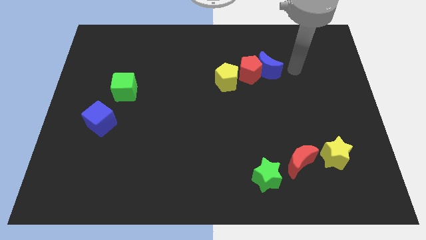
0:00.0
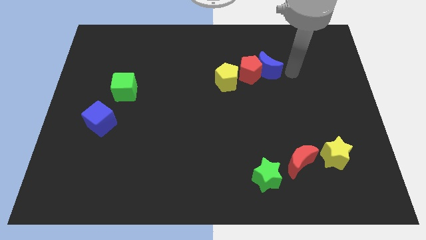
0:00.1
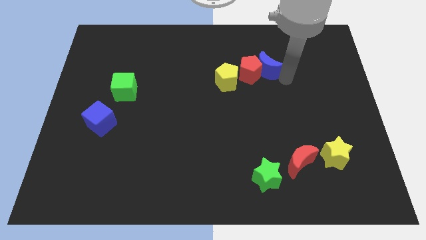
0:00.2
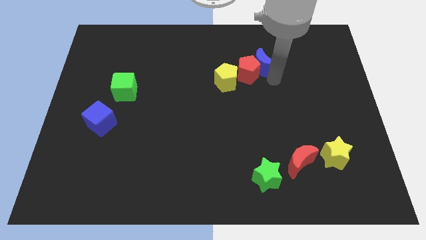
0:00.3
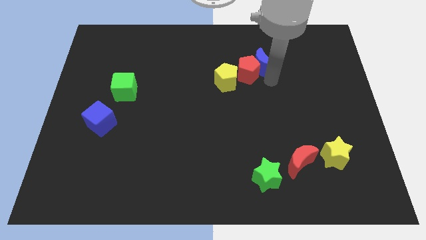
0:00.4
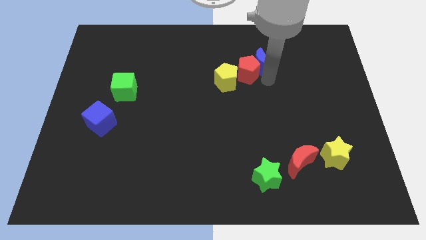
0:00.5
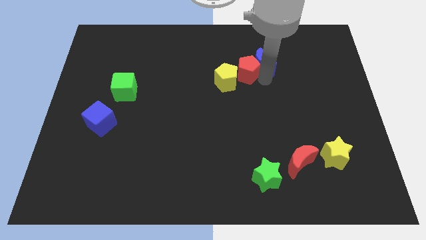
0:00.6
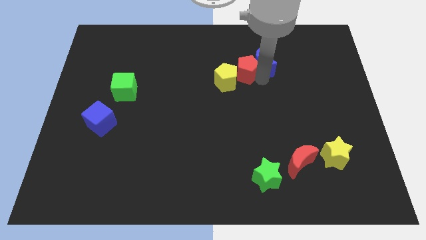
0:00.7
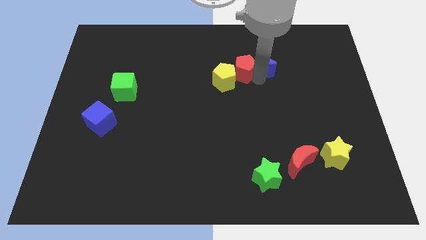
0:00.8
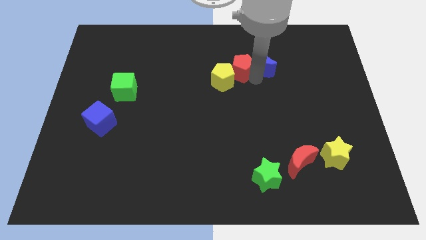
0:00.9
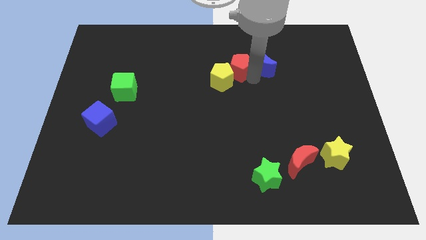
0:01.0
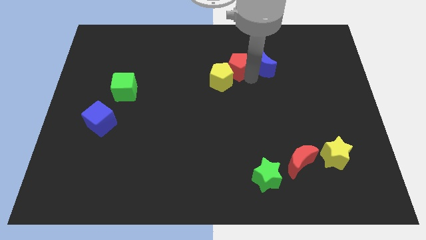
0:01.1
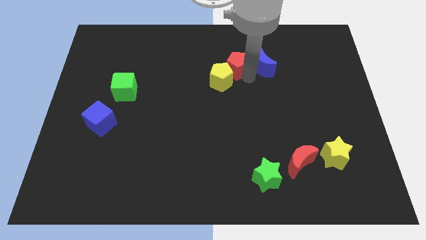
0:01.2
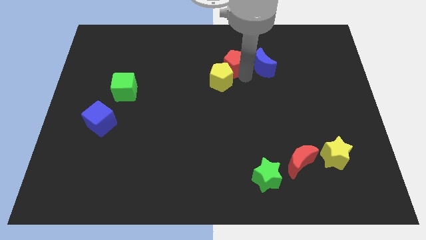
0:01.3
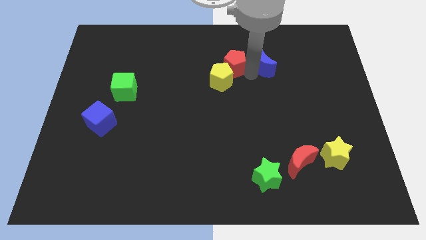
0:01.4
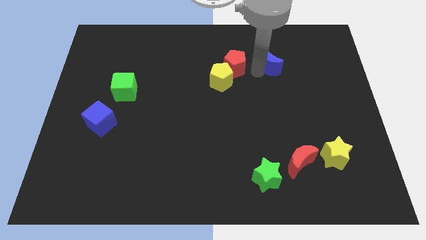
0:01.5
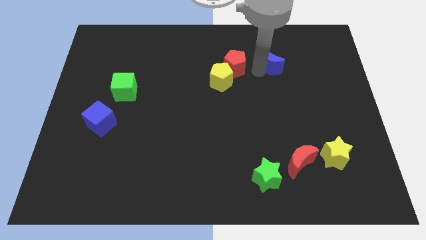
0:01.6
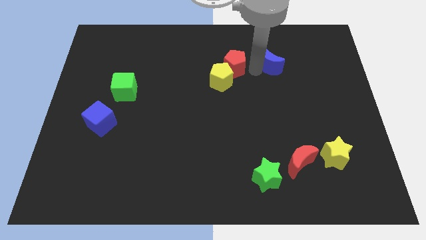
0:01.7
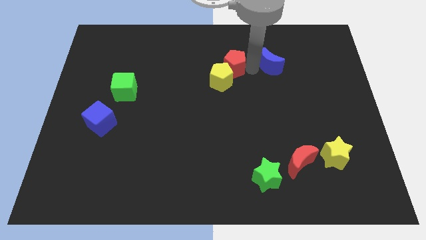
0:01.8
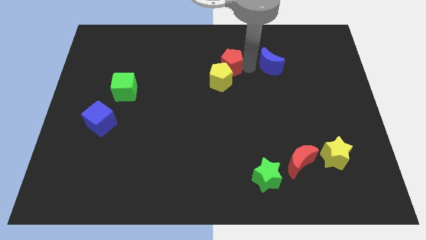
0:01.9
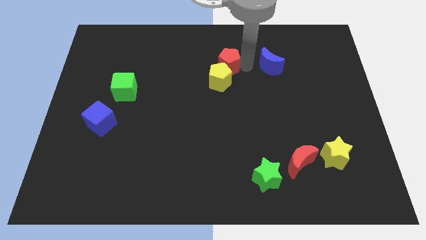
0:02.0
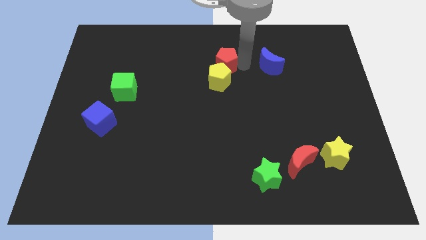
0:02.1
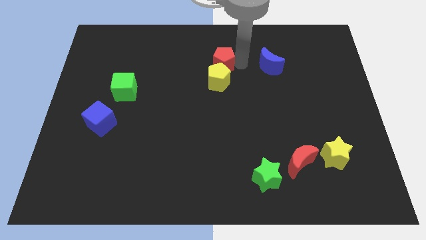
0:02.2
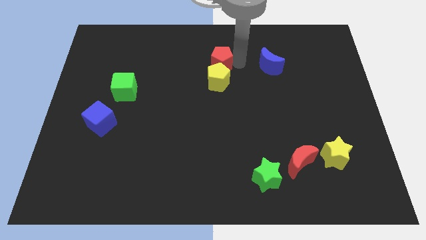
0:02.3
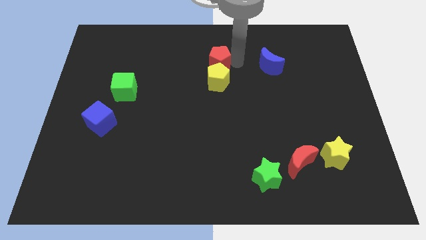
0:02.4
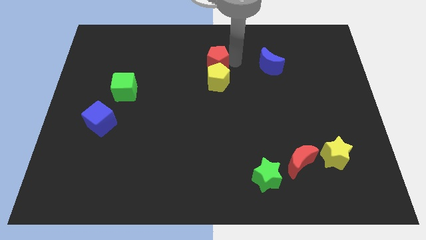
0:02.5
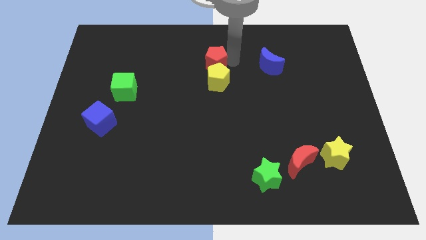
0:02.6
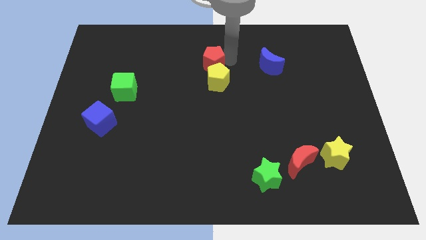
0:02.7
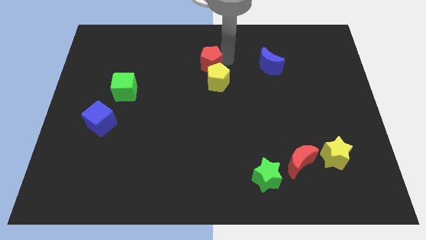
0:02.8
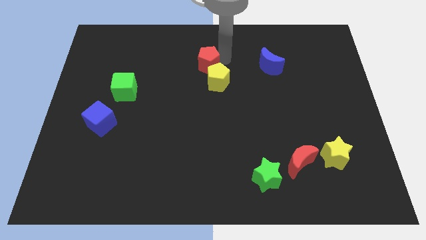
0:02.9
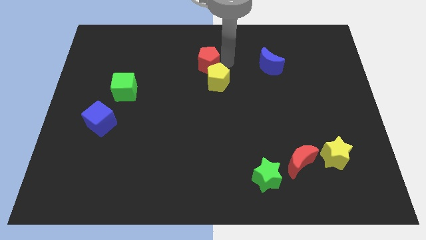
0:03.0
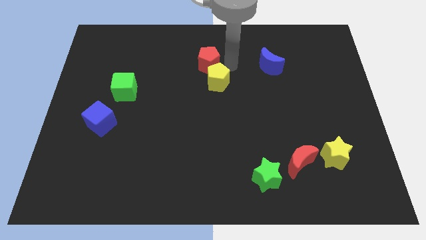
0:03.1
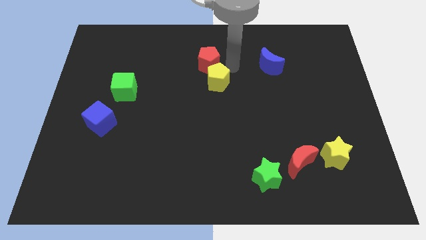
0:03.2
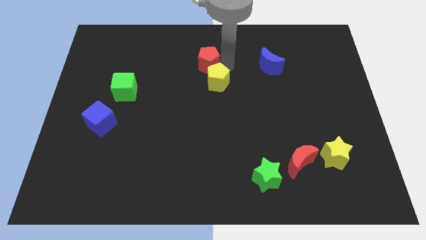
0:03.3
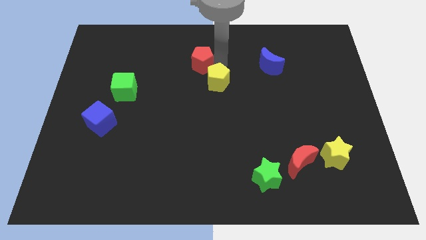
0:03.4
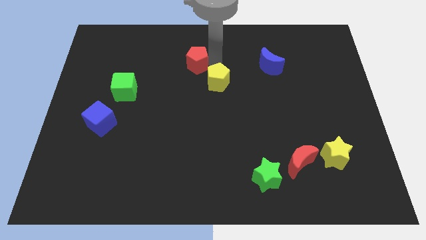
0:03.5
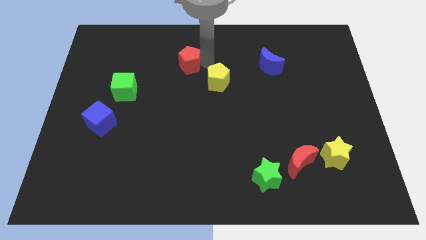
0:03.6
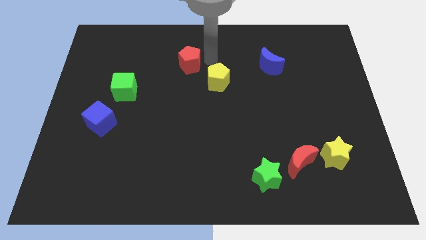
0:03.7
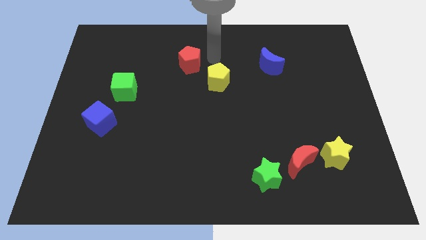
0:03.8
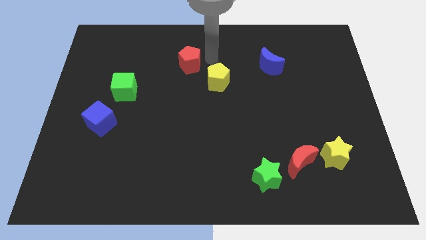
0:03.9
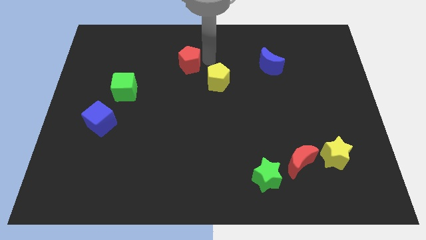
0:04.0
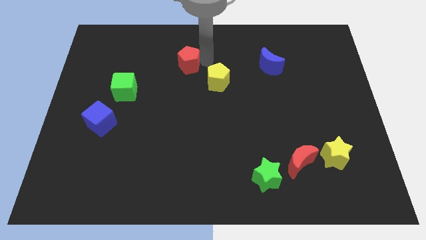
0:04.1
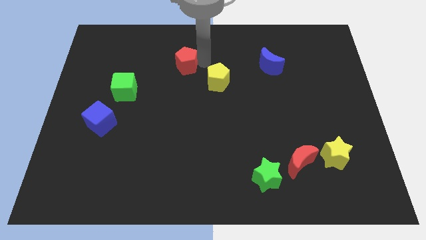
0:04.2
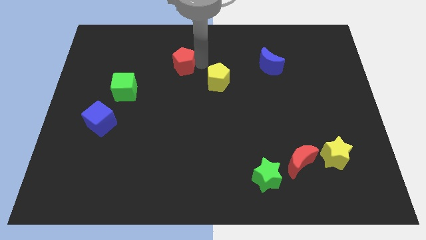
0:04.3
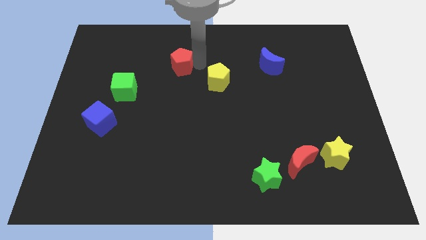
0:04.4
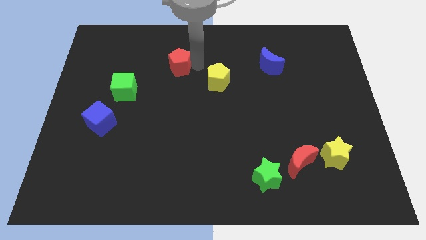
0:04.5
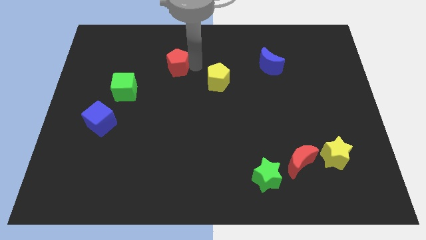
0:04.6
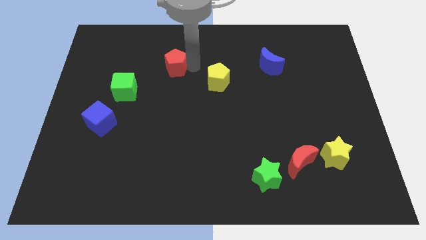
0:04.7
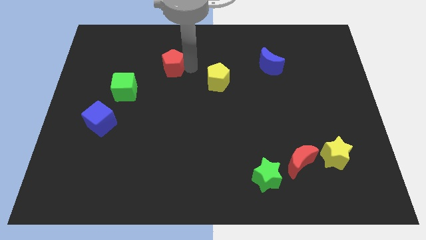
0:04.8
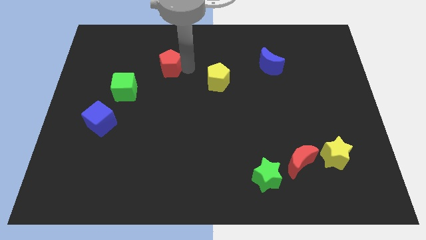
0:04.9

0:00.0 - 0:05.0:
slide the red pentagon to the left

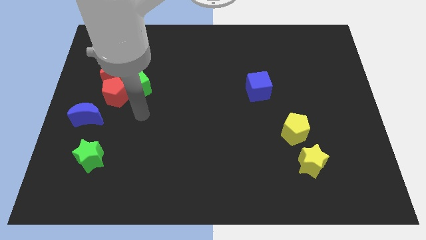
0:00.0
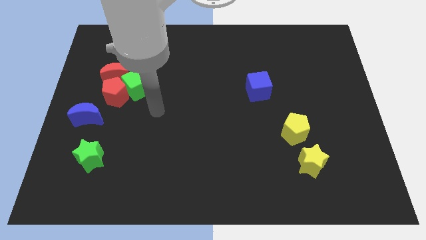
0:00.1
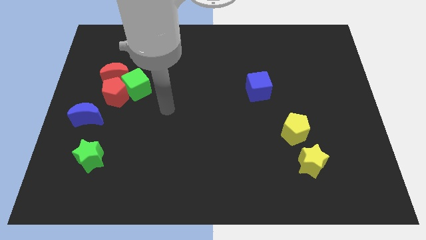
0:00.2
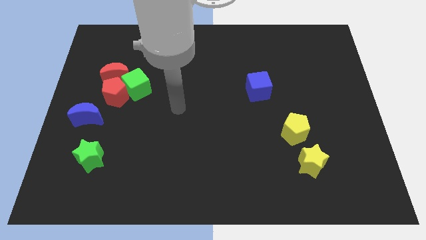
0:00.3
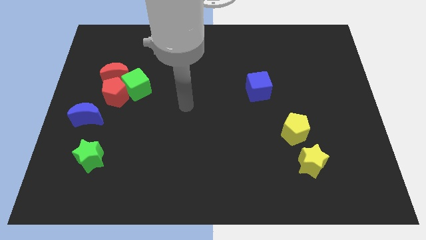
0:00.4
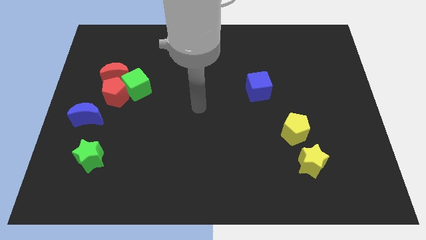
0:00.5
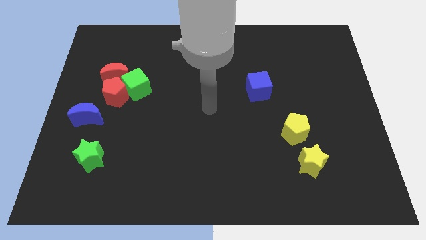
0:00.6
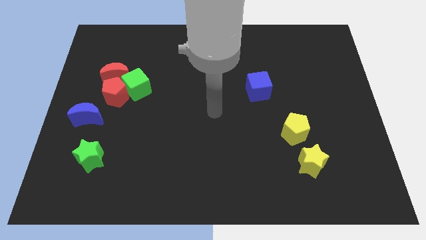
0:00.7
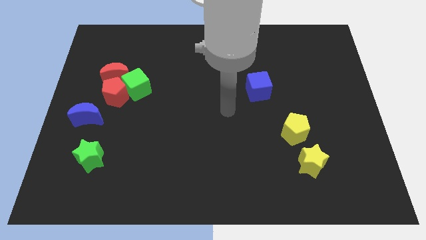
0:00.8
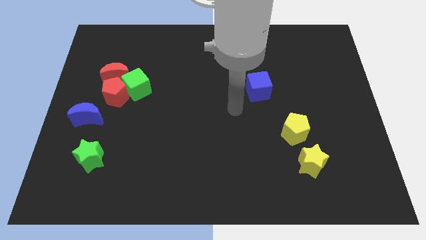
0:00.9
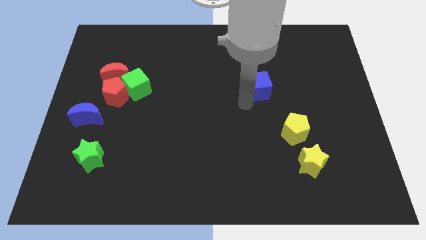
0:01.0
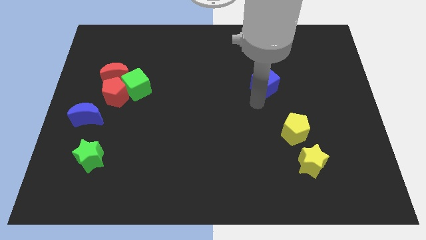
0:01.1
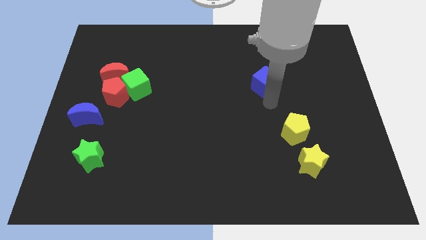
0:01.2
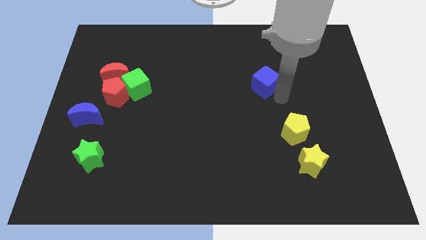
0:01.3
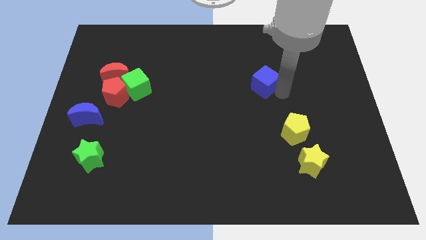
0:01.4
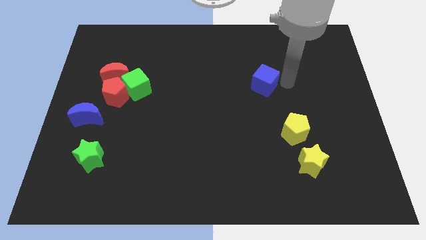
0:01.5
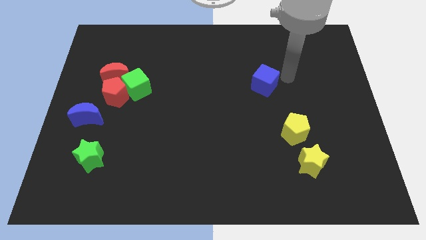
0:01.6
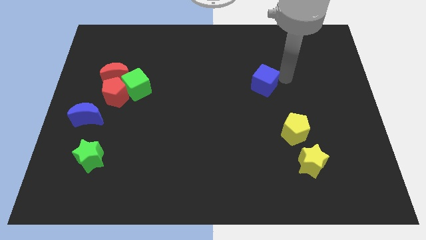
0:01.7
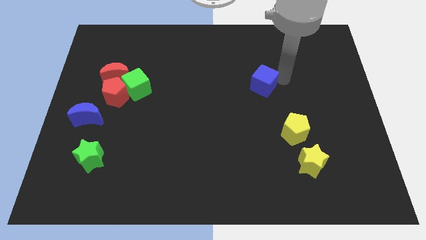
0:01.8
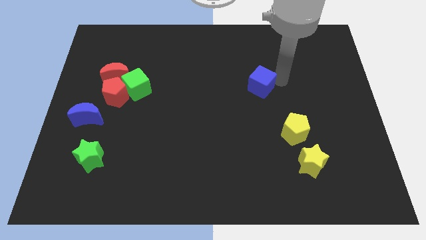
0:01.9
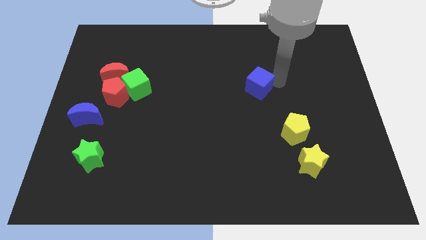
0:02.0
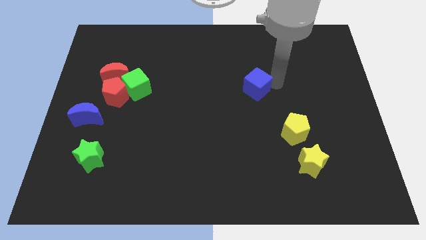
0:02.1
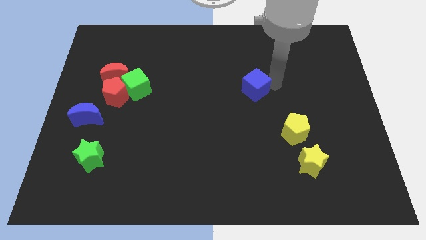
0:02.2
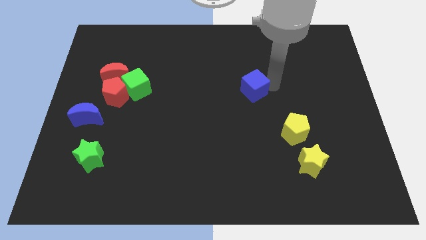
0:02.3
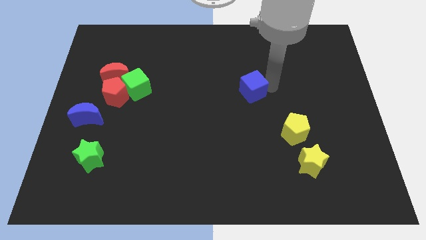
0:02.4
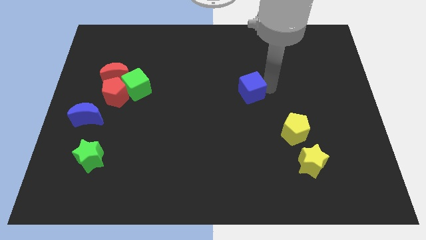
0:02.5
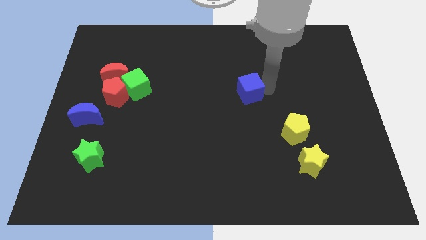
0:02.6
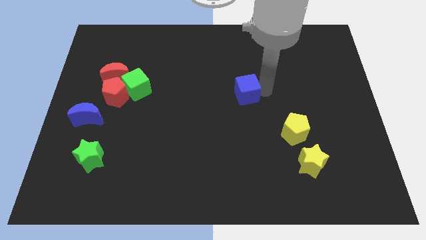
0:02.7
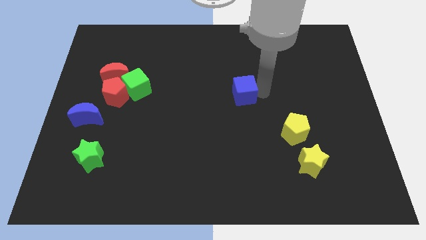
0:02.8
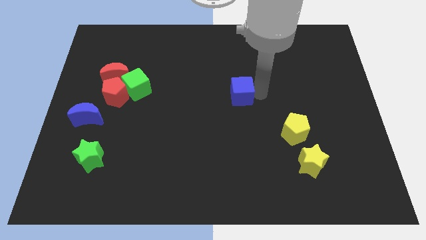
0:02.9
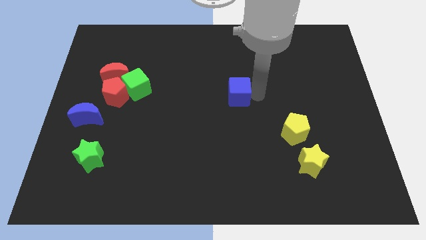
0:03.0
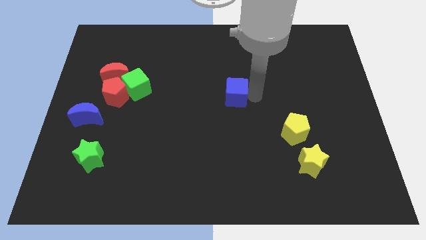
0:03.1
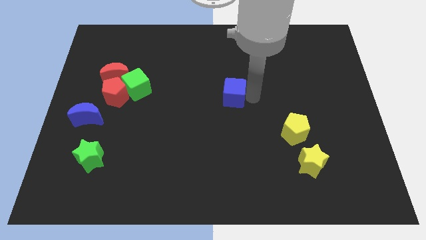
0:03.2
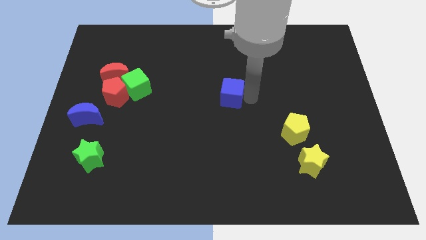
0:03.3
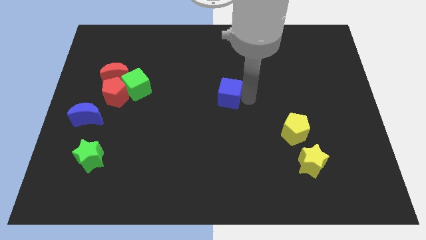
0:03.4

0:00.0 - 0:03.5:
slide the blue cube a bit to the left
